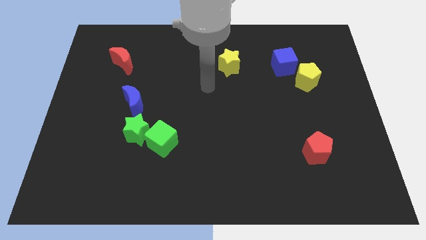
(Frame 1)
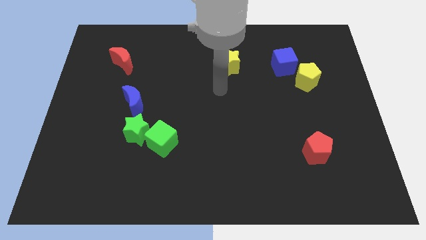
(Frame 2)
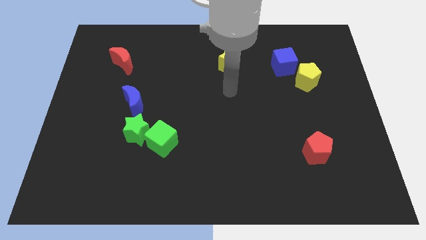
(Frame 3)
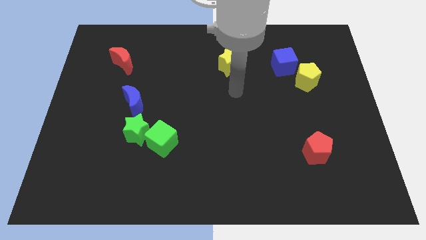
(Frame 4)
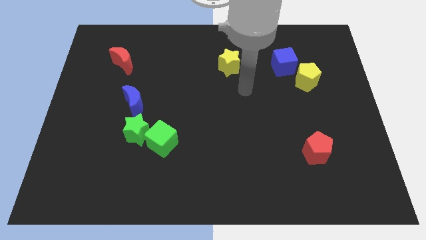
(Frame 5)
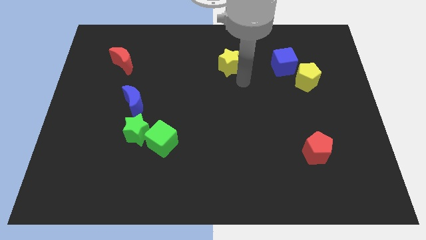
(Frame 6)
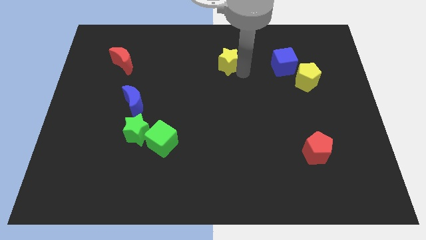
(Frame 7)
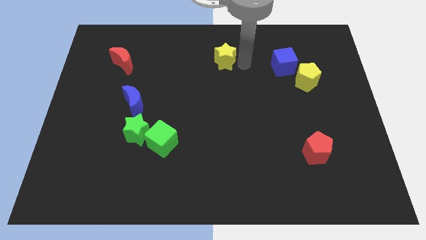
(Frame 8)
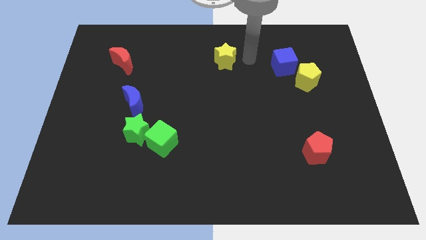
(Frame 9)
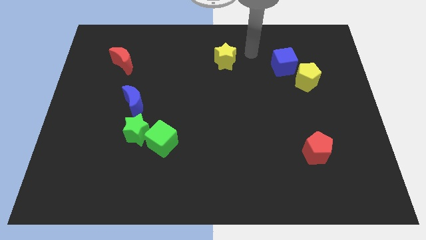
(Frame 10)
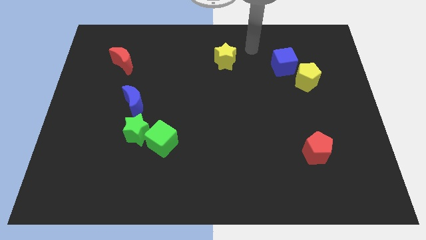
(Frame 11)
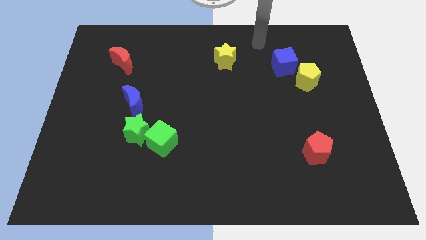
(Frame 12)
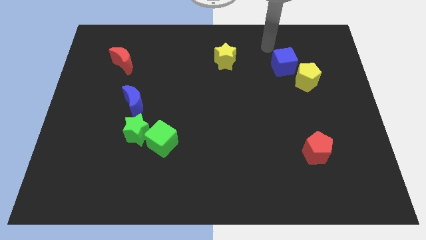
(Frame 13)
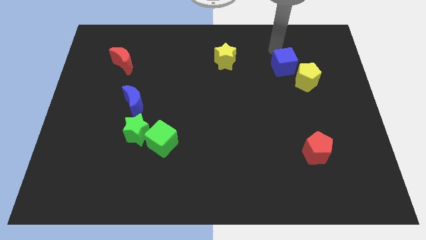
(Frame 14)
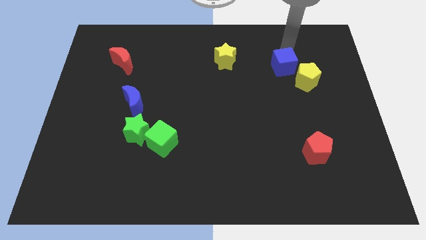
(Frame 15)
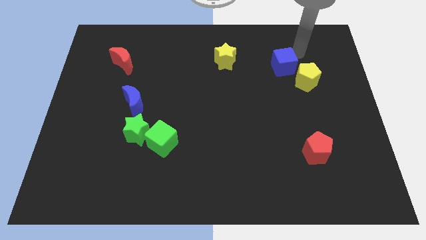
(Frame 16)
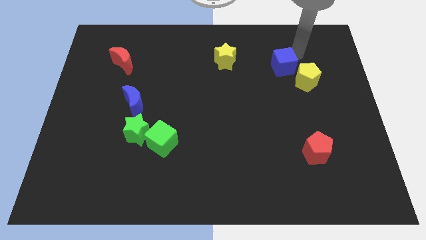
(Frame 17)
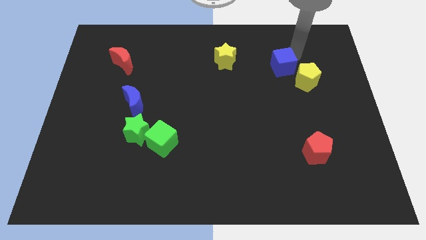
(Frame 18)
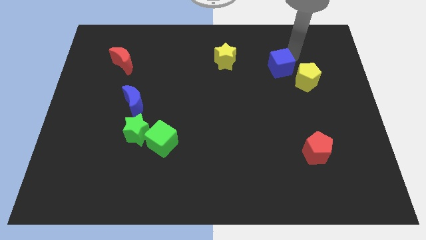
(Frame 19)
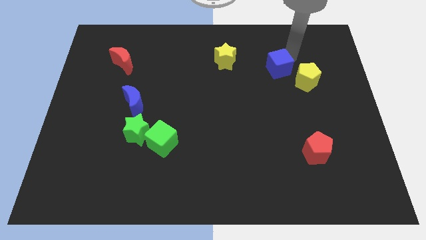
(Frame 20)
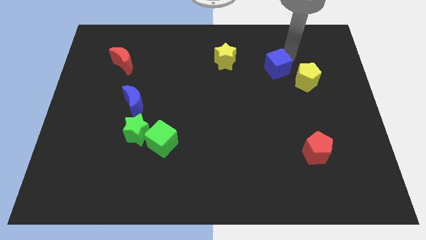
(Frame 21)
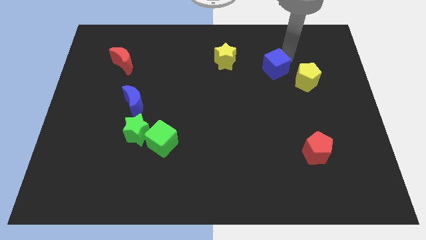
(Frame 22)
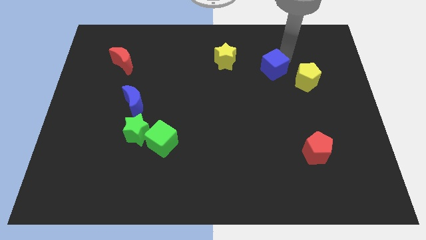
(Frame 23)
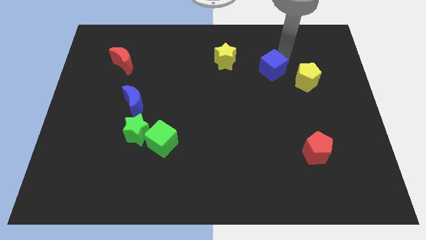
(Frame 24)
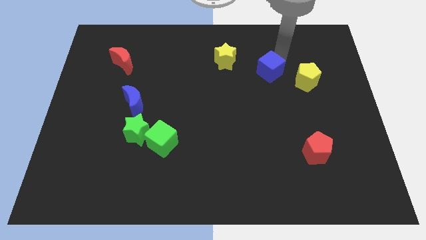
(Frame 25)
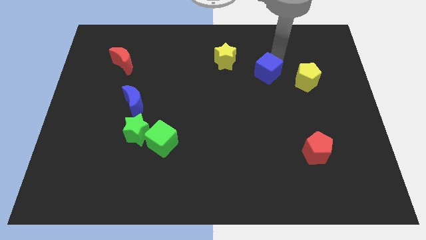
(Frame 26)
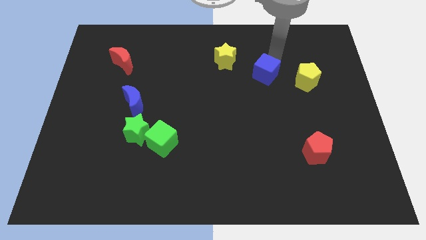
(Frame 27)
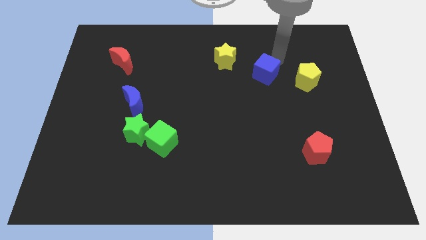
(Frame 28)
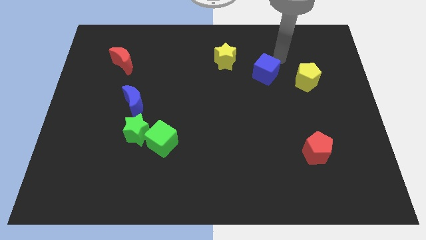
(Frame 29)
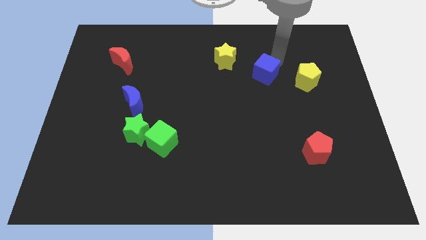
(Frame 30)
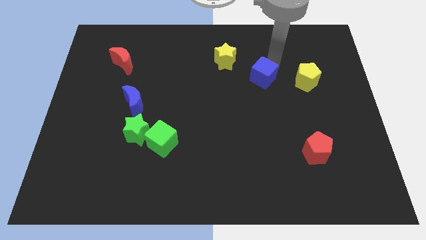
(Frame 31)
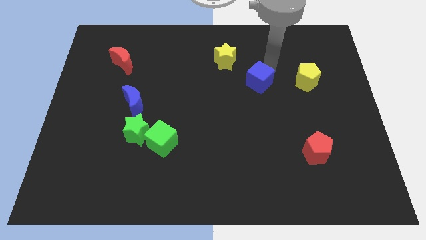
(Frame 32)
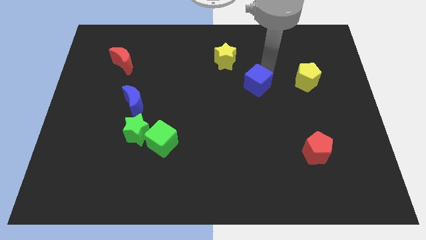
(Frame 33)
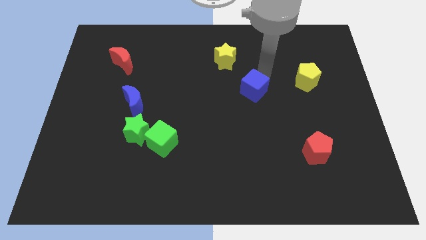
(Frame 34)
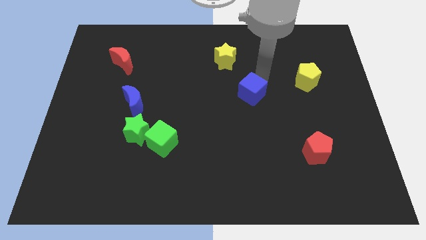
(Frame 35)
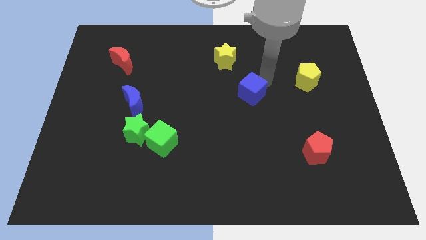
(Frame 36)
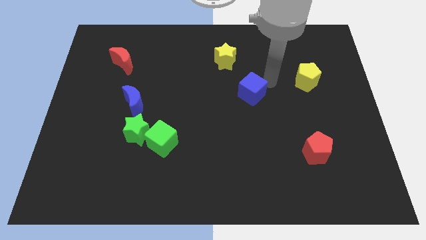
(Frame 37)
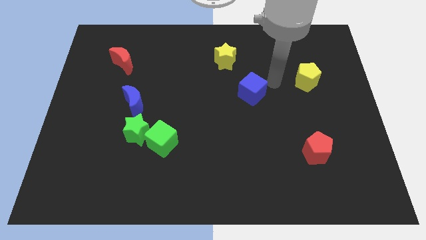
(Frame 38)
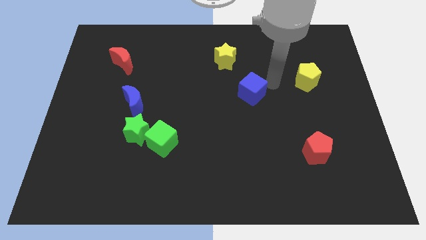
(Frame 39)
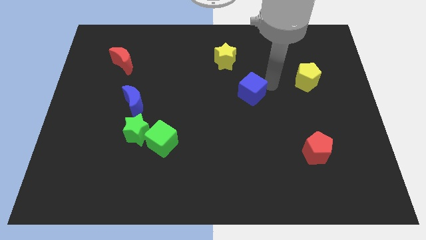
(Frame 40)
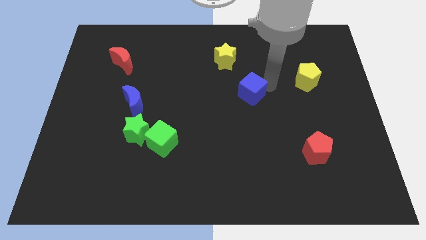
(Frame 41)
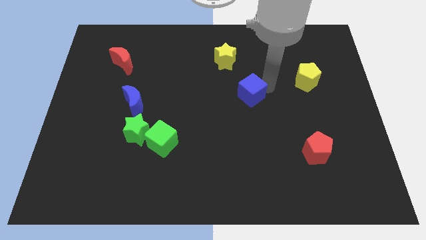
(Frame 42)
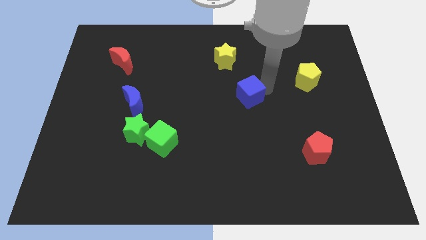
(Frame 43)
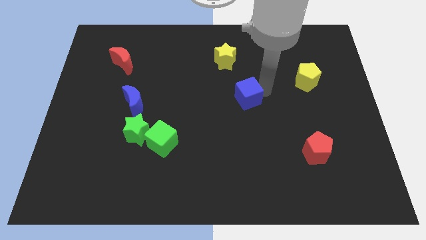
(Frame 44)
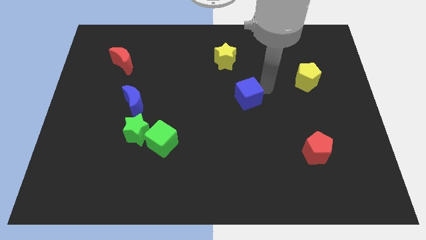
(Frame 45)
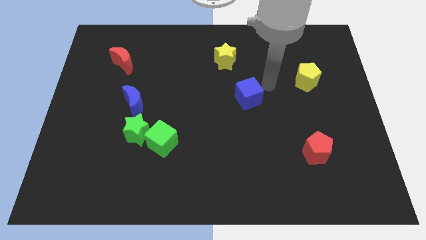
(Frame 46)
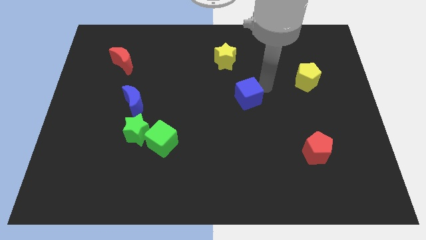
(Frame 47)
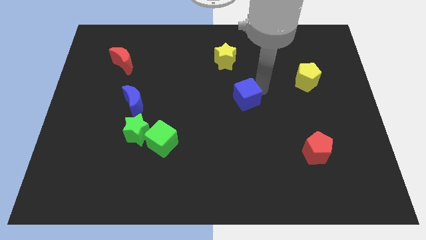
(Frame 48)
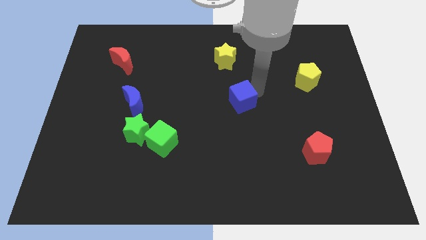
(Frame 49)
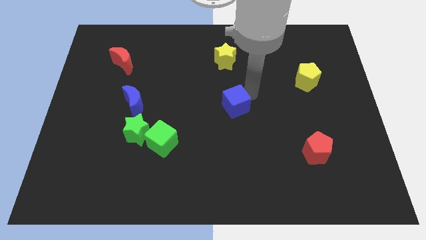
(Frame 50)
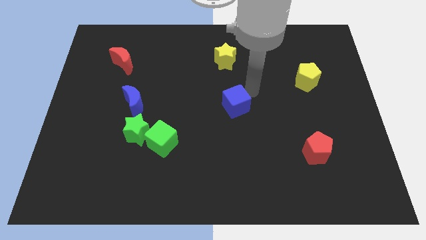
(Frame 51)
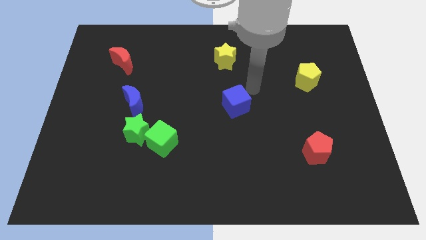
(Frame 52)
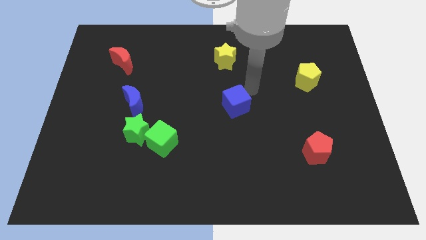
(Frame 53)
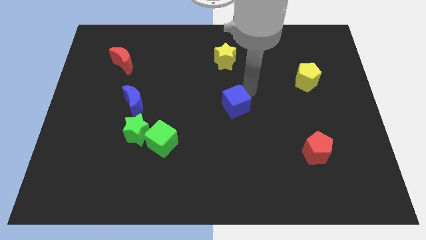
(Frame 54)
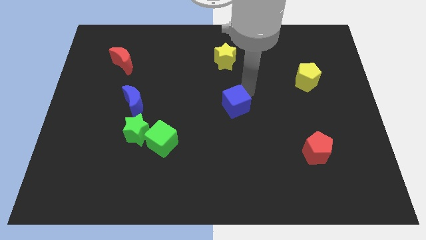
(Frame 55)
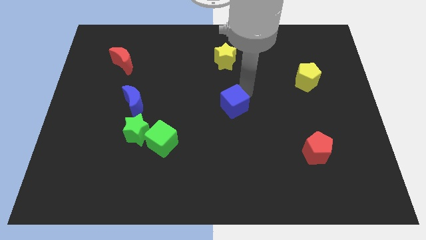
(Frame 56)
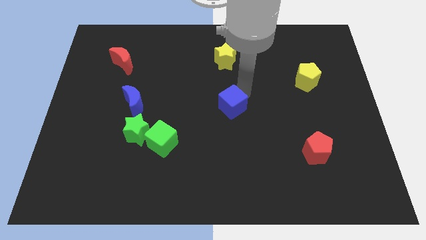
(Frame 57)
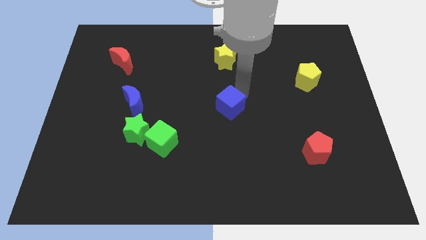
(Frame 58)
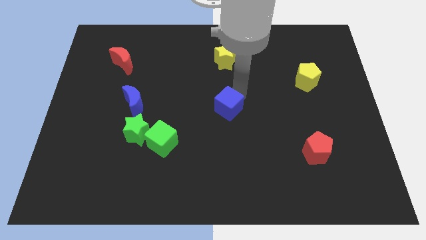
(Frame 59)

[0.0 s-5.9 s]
move the blue cube diagonally downwards and to the left

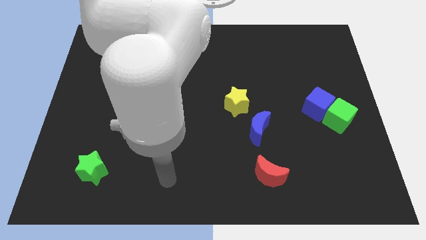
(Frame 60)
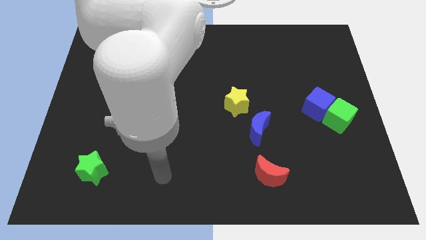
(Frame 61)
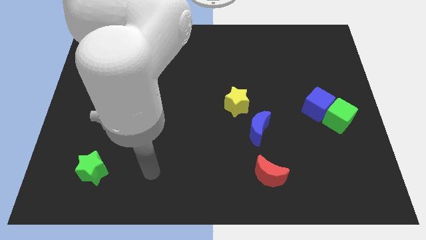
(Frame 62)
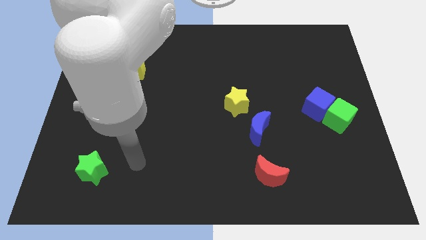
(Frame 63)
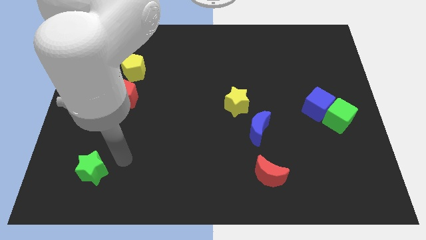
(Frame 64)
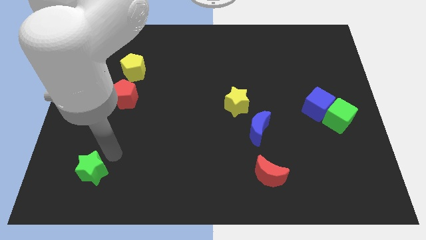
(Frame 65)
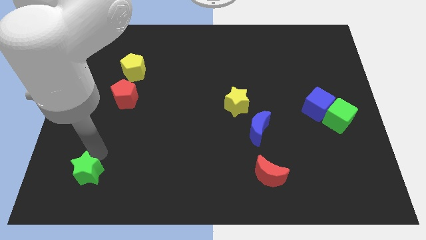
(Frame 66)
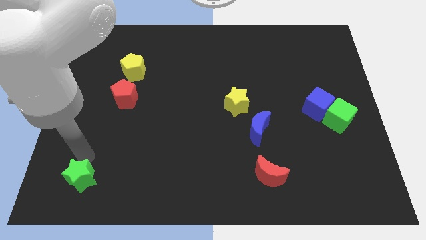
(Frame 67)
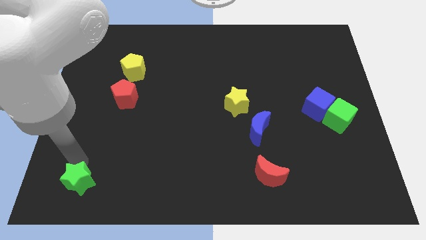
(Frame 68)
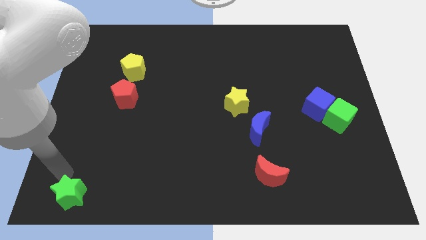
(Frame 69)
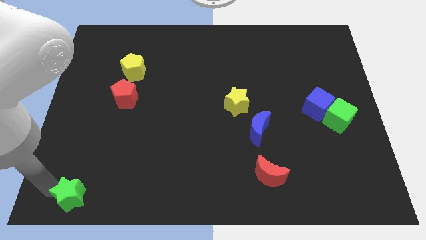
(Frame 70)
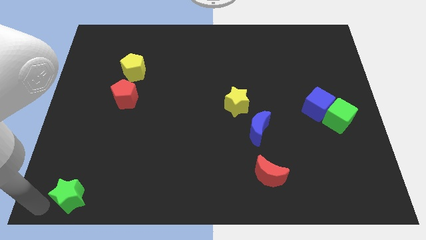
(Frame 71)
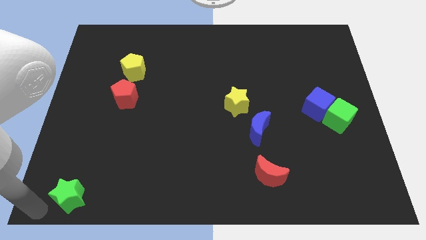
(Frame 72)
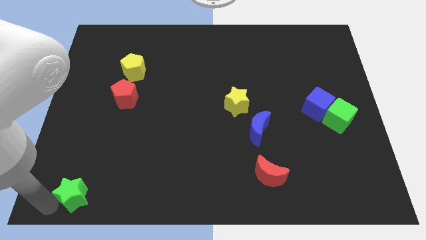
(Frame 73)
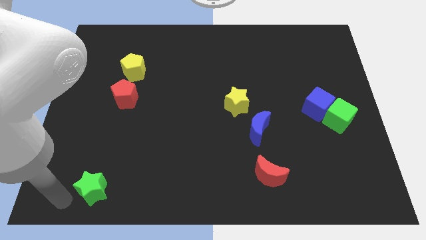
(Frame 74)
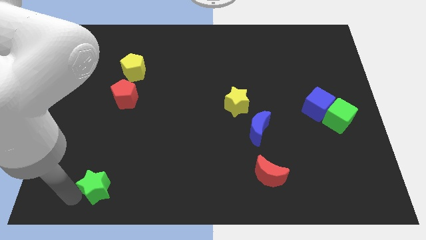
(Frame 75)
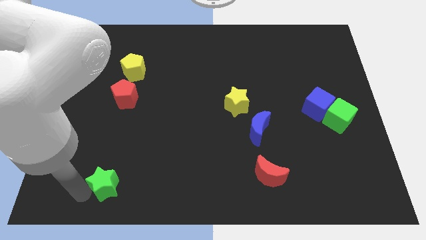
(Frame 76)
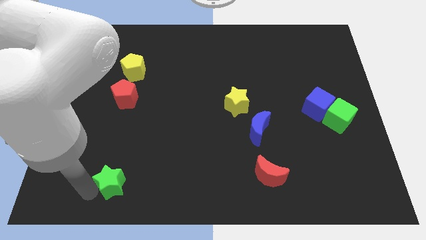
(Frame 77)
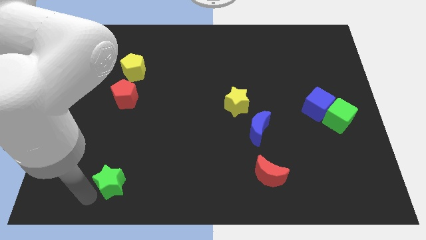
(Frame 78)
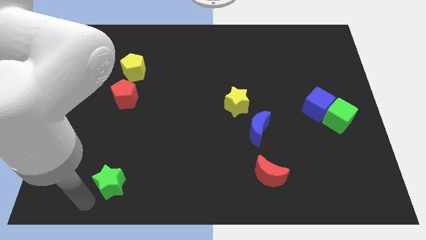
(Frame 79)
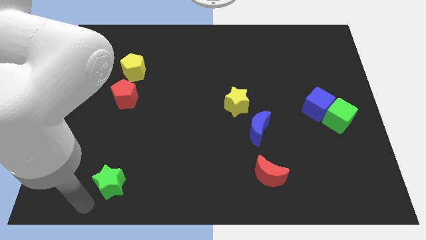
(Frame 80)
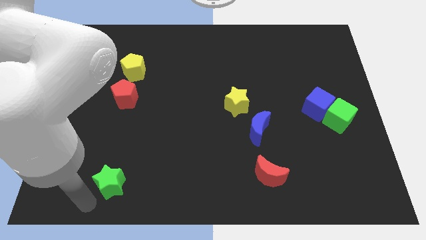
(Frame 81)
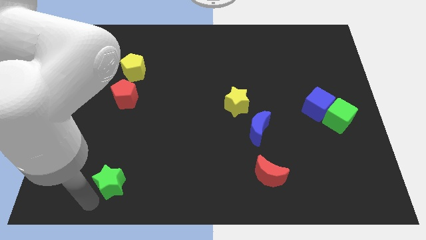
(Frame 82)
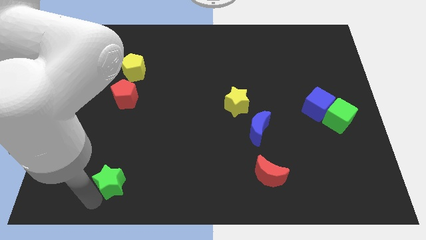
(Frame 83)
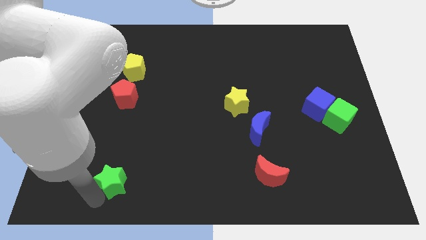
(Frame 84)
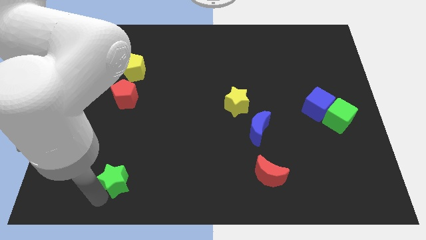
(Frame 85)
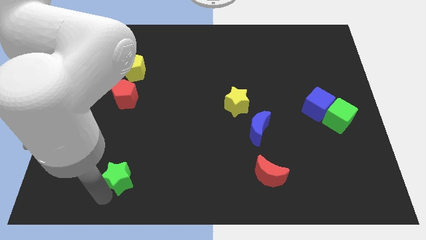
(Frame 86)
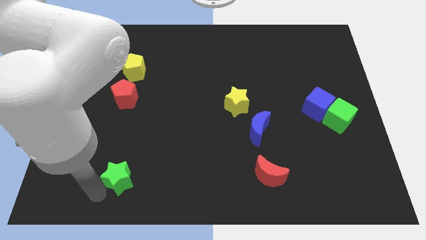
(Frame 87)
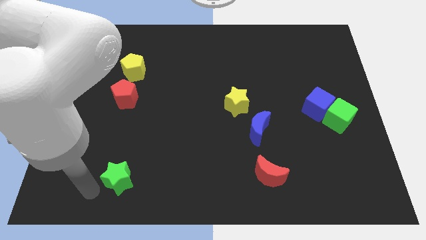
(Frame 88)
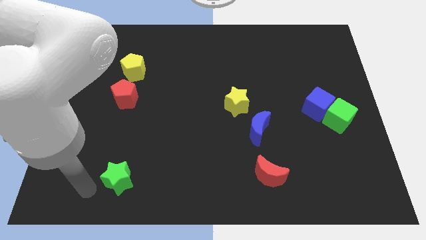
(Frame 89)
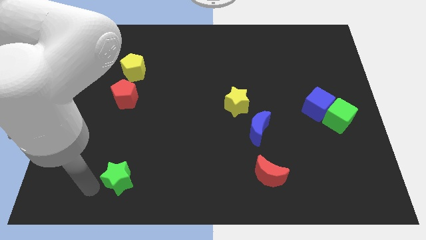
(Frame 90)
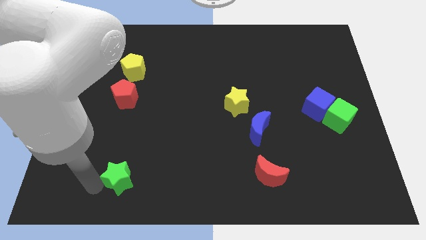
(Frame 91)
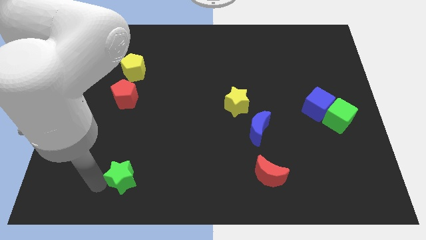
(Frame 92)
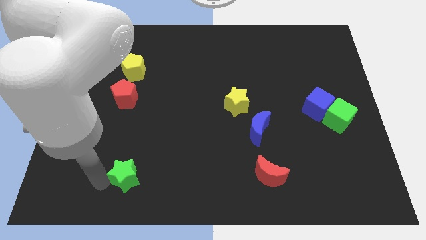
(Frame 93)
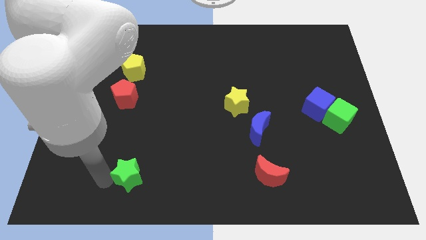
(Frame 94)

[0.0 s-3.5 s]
push the green star to the right a bit
